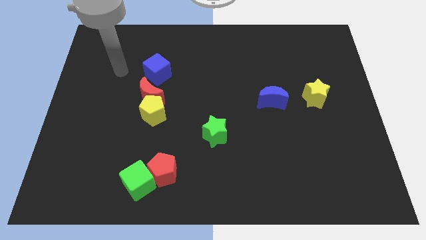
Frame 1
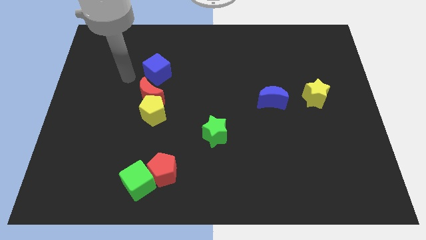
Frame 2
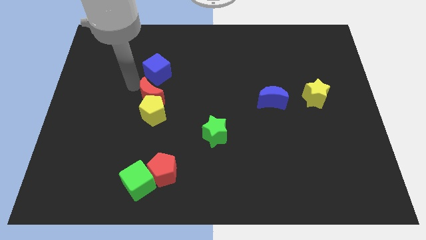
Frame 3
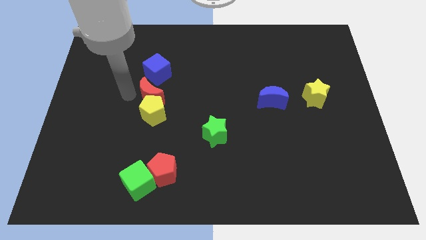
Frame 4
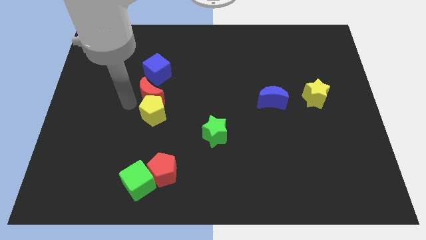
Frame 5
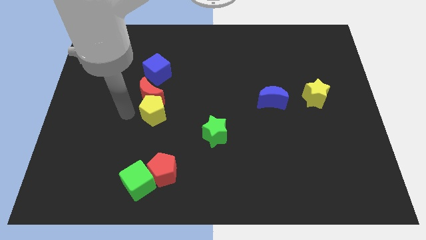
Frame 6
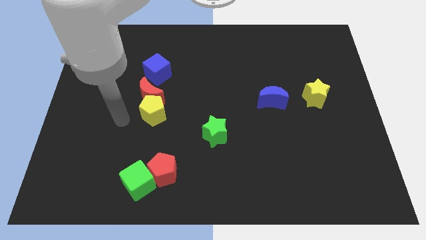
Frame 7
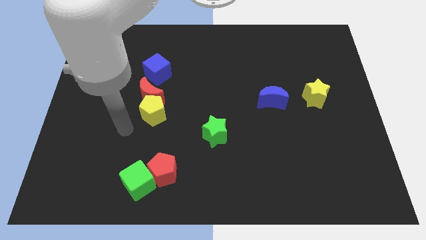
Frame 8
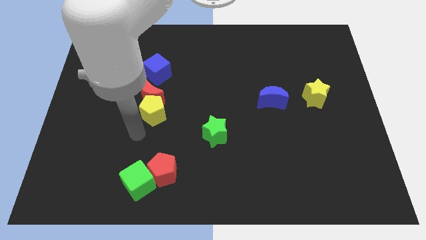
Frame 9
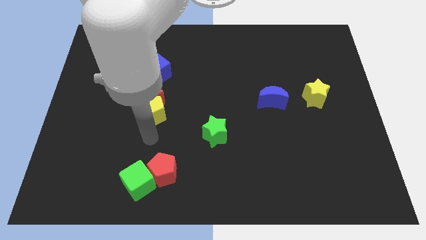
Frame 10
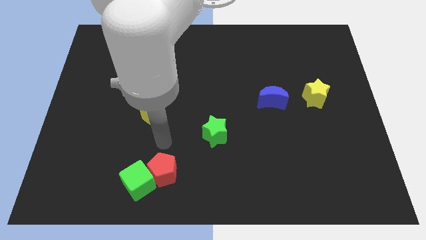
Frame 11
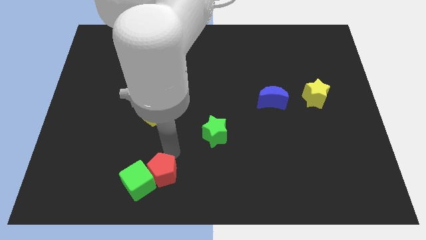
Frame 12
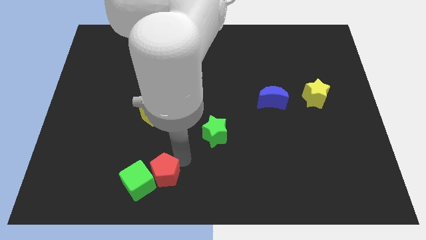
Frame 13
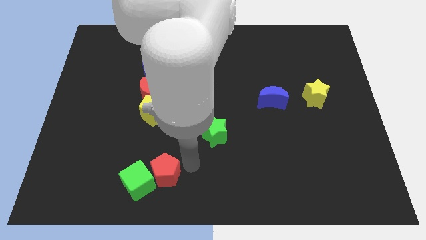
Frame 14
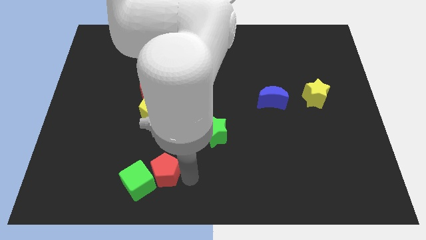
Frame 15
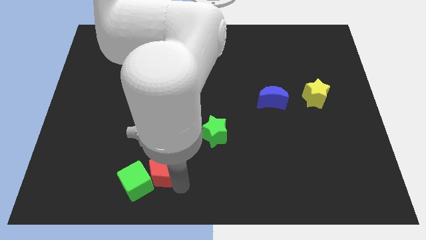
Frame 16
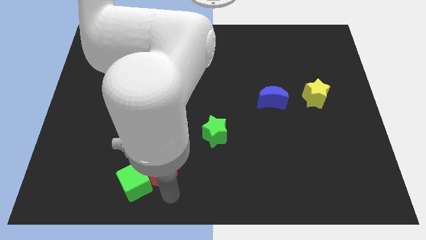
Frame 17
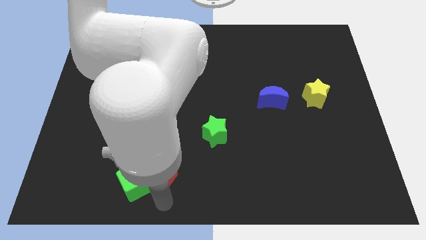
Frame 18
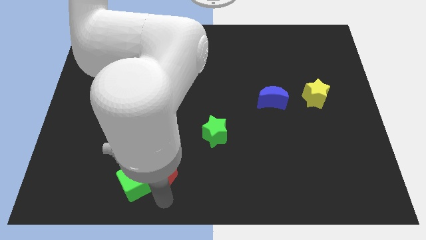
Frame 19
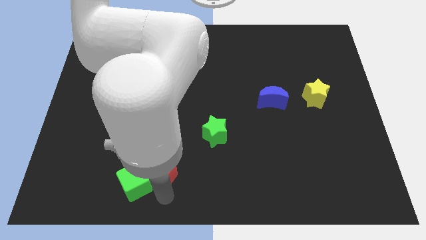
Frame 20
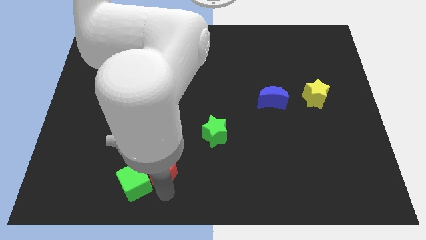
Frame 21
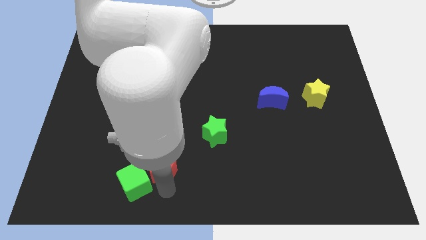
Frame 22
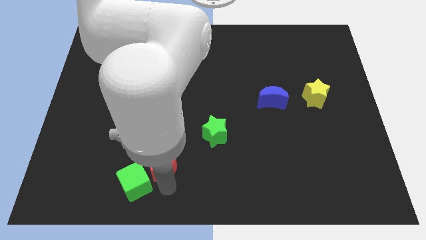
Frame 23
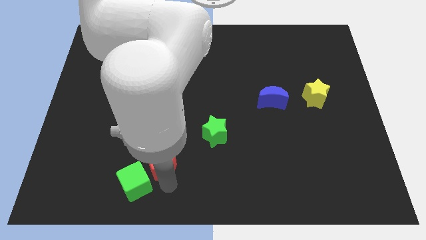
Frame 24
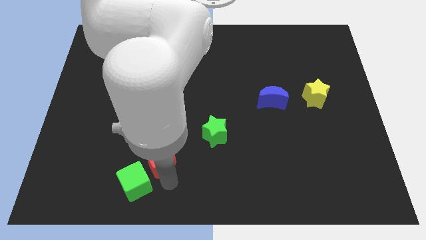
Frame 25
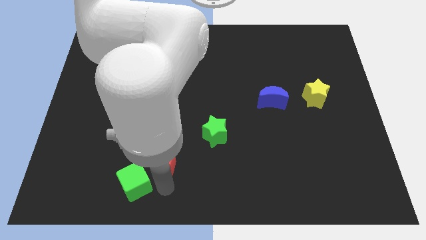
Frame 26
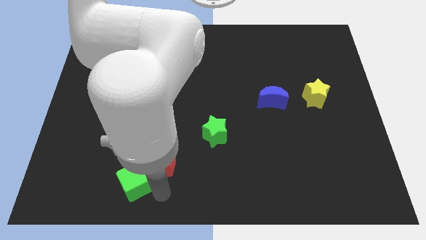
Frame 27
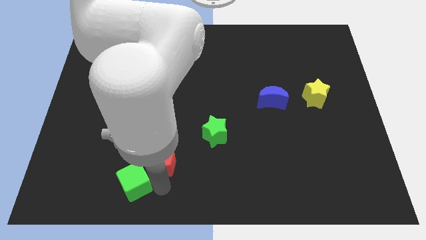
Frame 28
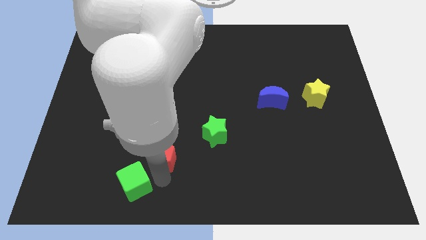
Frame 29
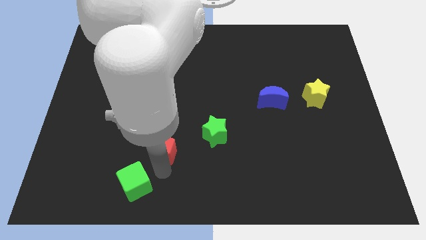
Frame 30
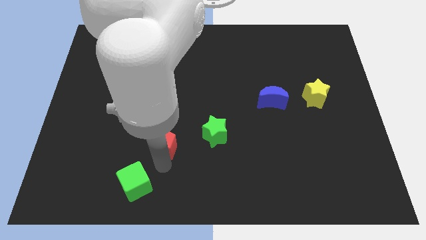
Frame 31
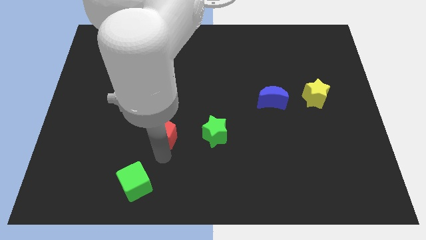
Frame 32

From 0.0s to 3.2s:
move the red pentagon upwards a bit

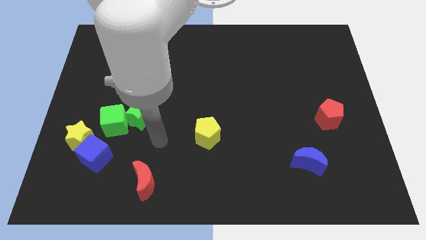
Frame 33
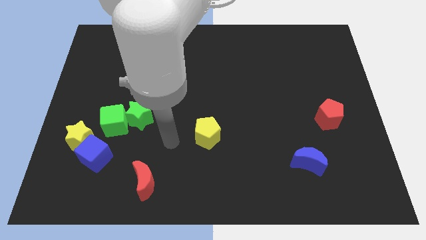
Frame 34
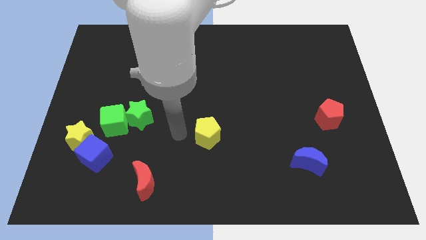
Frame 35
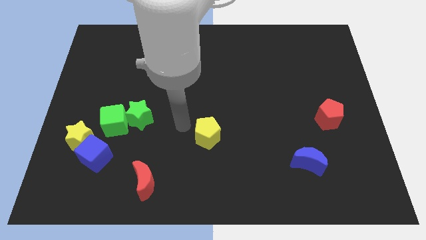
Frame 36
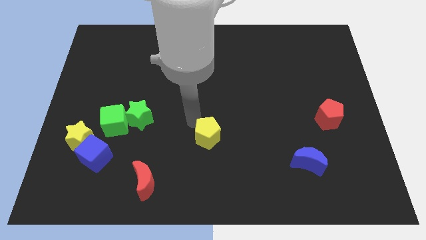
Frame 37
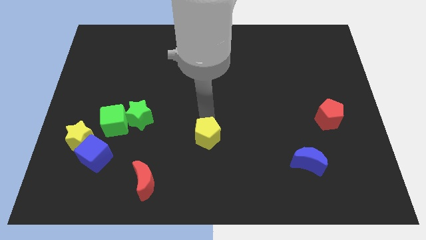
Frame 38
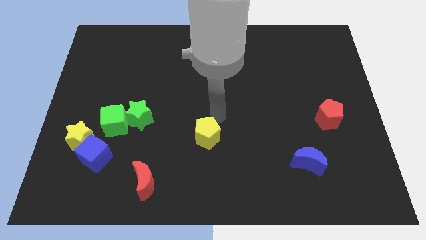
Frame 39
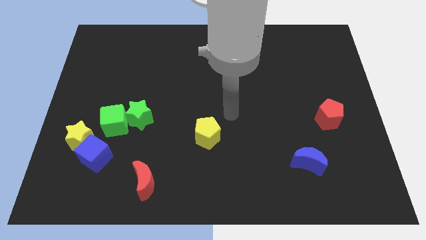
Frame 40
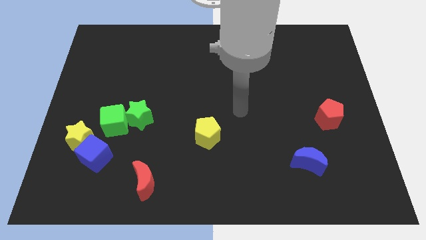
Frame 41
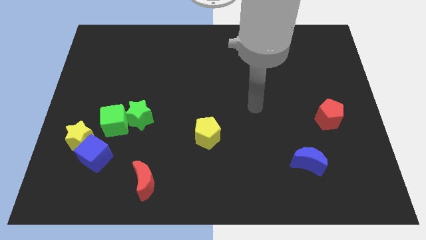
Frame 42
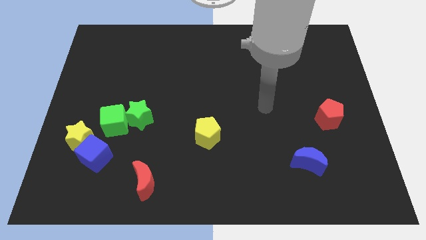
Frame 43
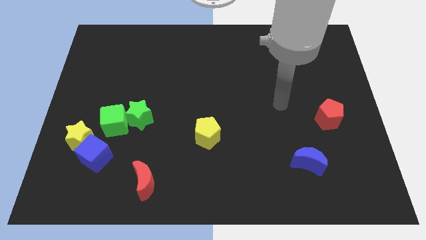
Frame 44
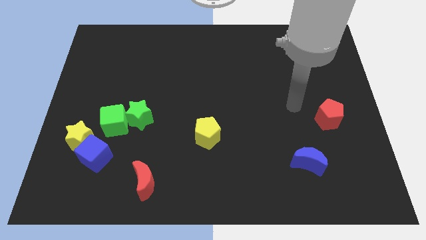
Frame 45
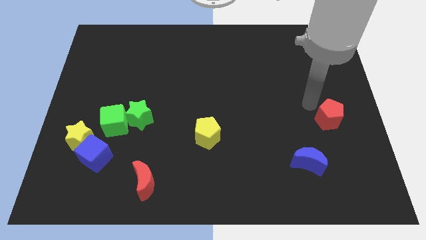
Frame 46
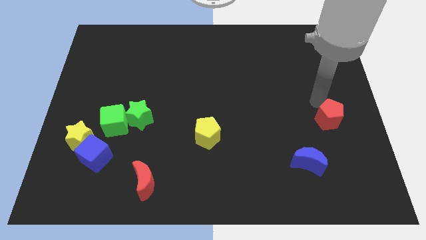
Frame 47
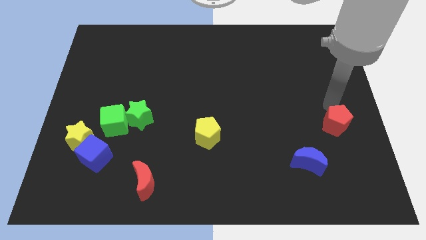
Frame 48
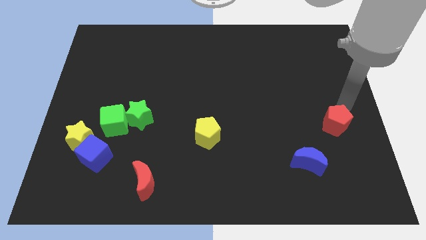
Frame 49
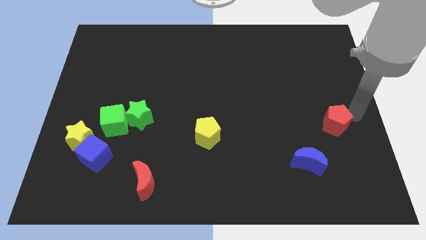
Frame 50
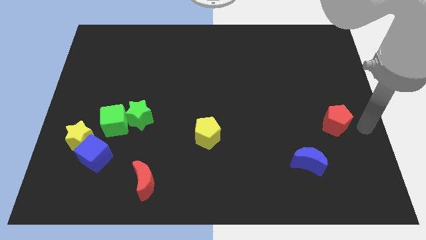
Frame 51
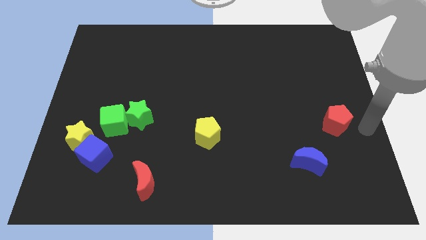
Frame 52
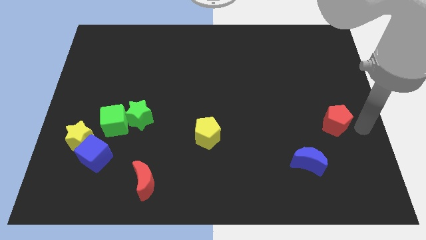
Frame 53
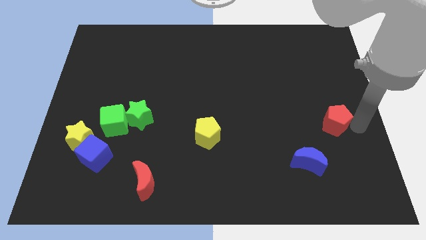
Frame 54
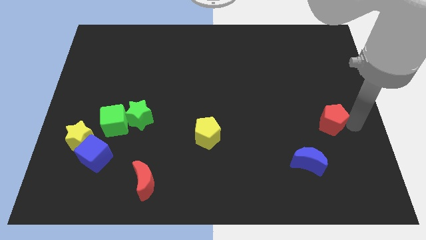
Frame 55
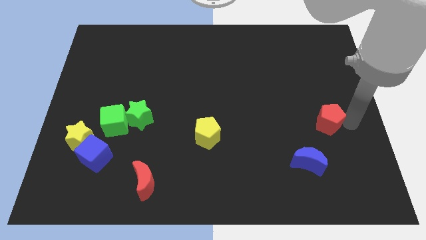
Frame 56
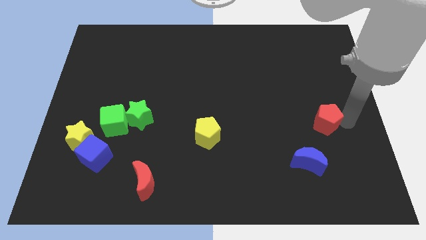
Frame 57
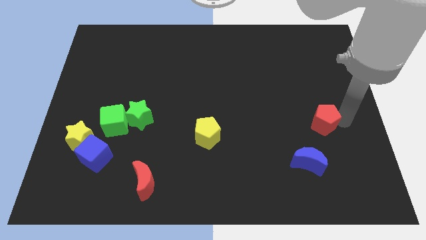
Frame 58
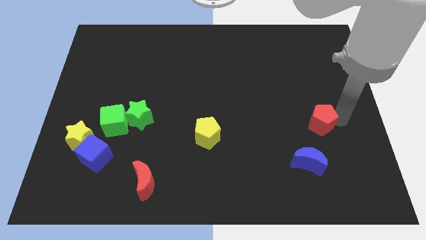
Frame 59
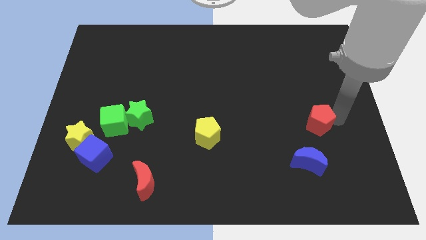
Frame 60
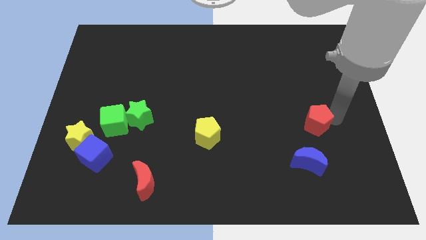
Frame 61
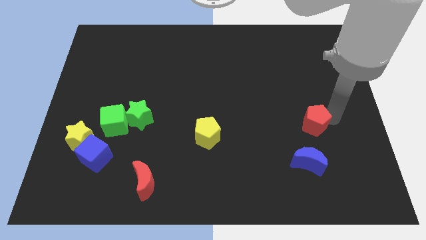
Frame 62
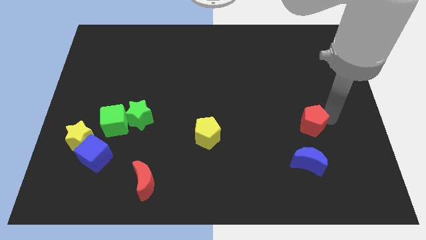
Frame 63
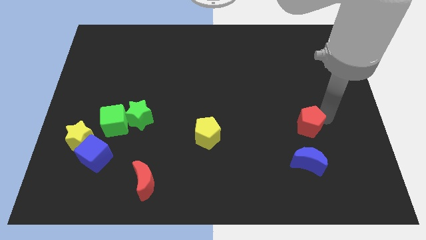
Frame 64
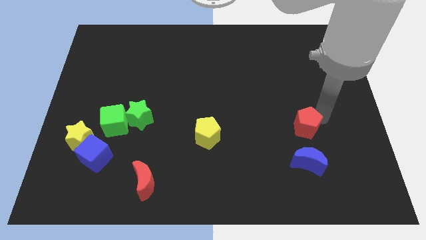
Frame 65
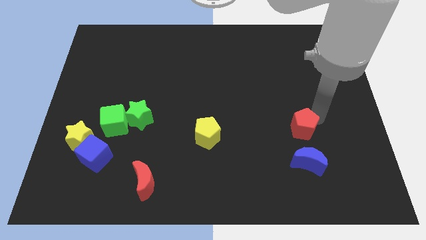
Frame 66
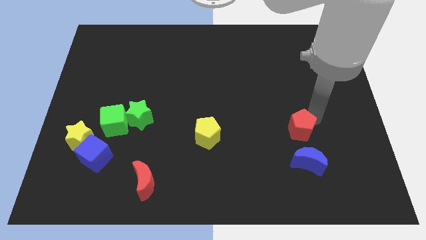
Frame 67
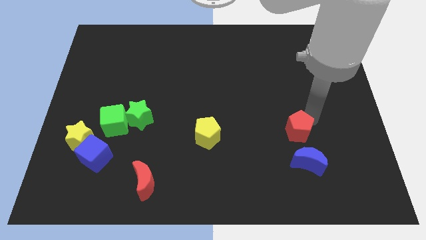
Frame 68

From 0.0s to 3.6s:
slide the red pentagon a little bit to the left

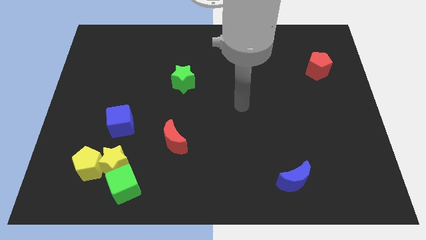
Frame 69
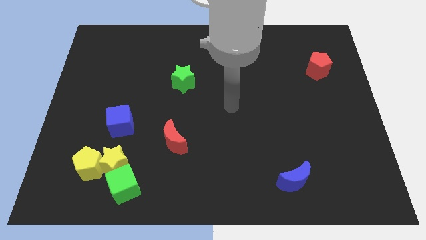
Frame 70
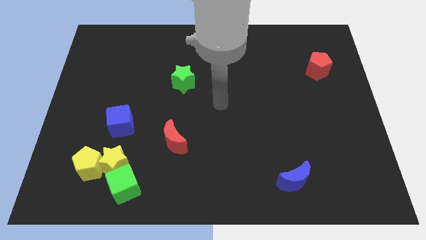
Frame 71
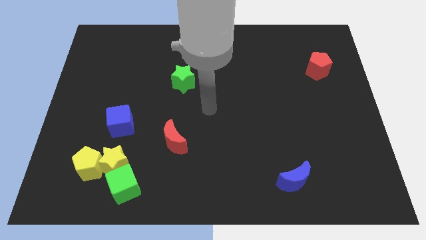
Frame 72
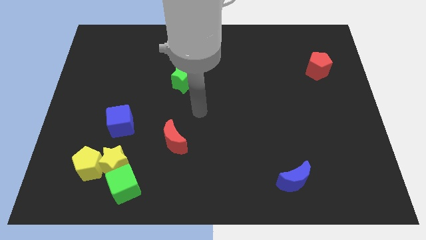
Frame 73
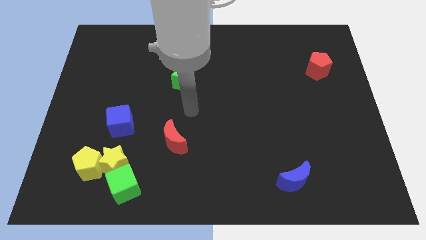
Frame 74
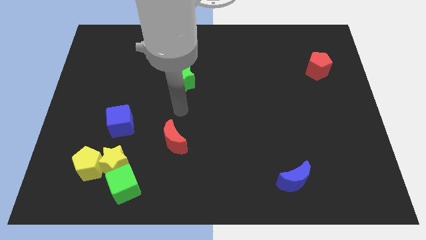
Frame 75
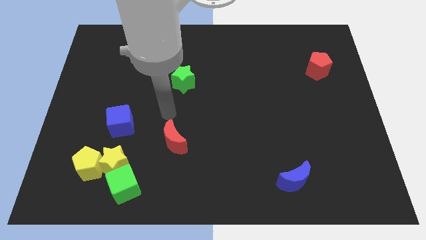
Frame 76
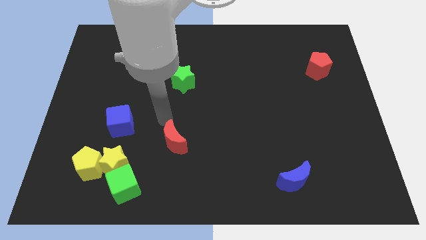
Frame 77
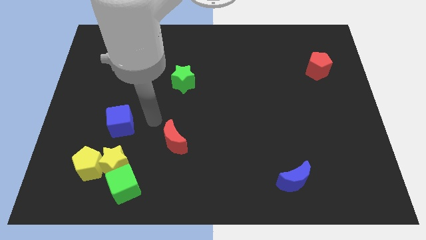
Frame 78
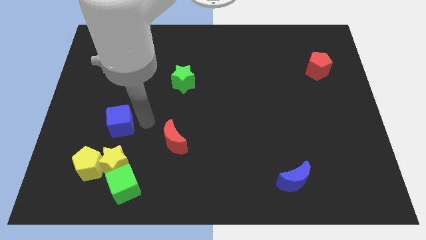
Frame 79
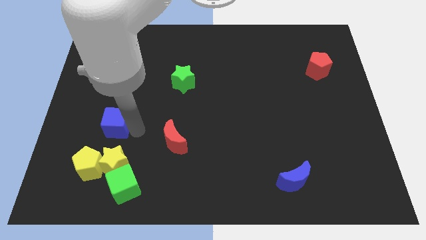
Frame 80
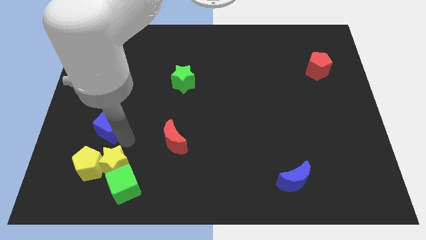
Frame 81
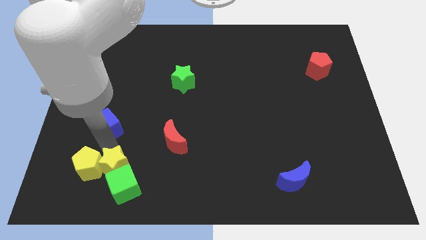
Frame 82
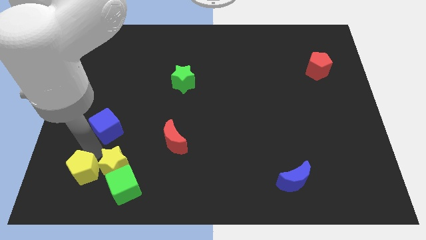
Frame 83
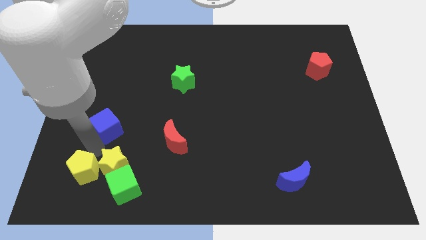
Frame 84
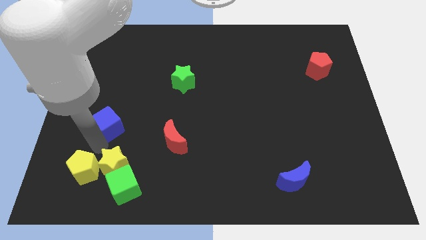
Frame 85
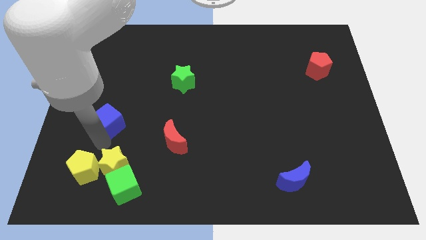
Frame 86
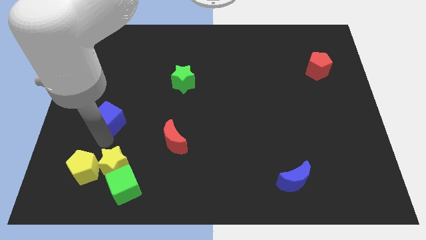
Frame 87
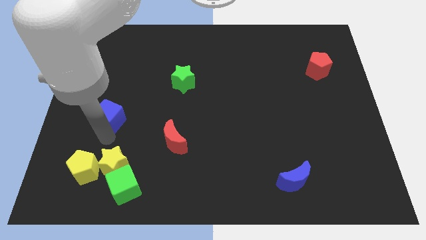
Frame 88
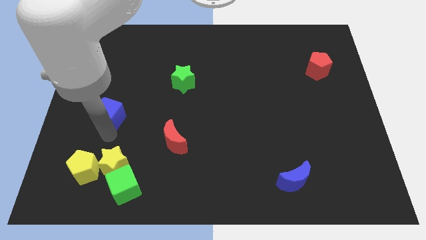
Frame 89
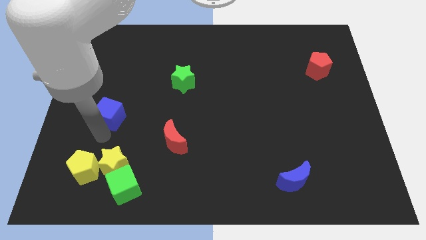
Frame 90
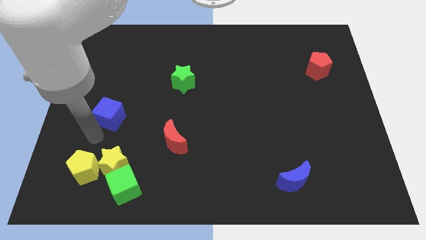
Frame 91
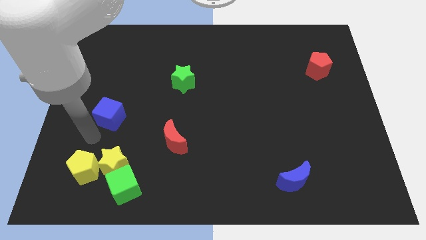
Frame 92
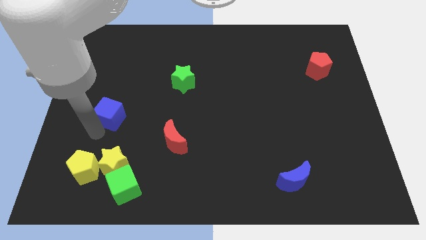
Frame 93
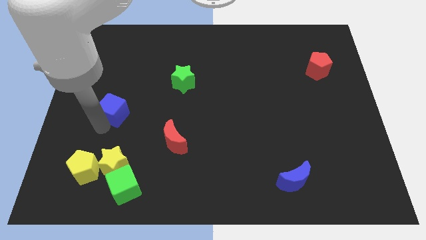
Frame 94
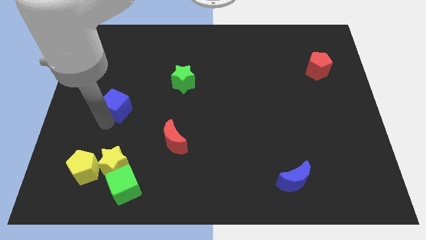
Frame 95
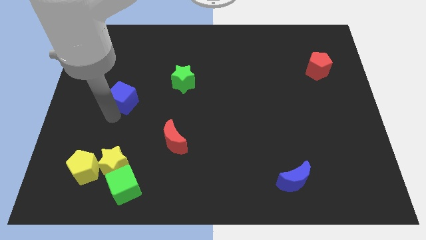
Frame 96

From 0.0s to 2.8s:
push the blue cube up a little
